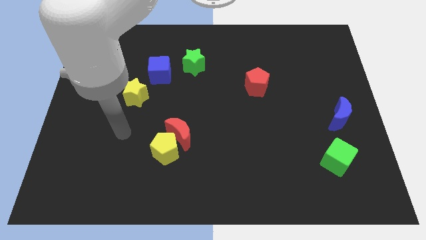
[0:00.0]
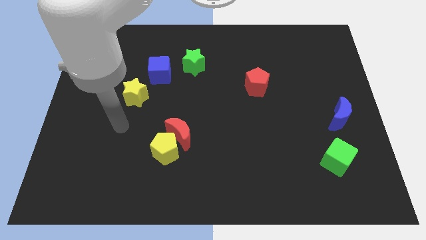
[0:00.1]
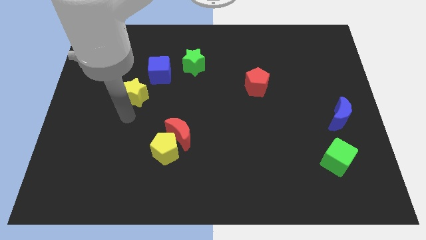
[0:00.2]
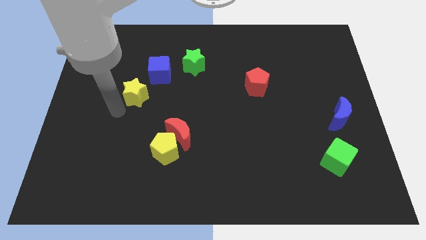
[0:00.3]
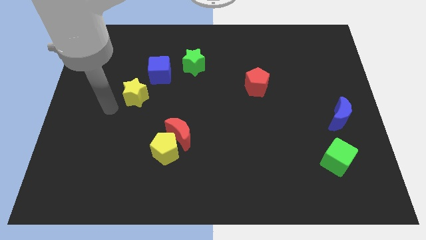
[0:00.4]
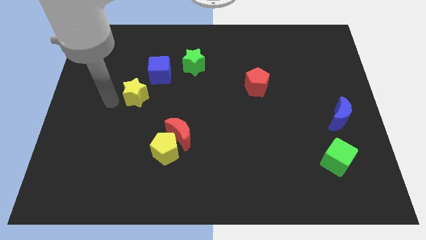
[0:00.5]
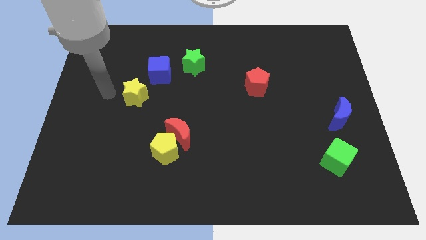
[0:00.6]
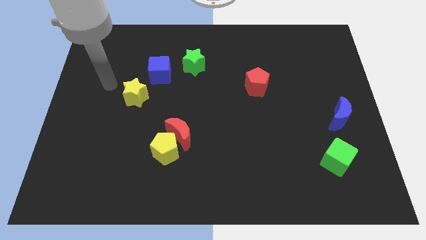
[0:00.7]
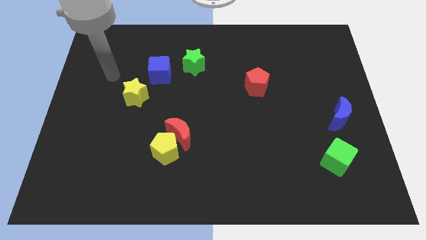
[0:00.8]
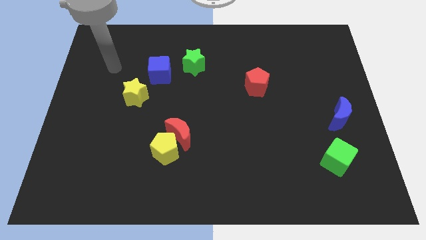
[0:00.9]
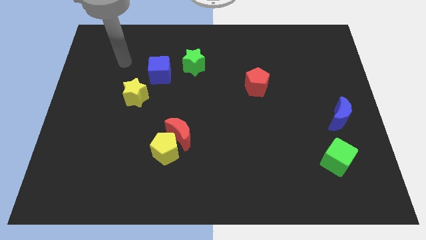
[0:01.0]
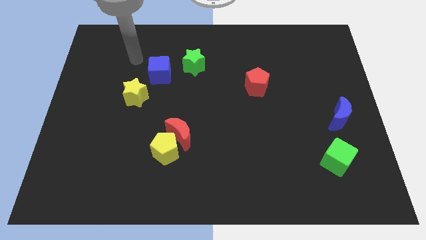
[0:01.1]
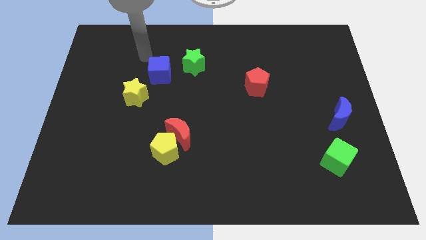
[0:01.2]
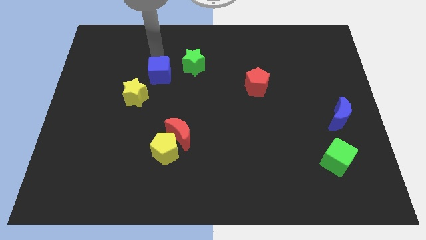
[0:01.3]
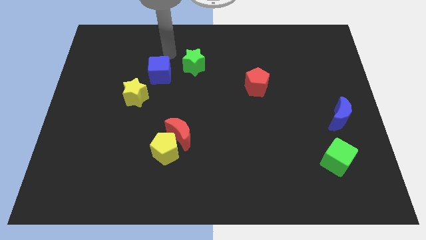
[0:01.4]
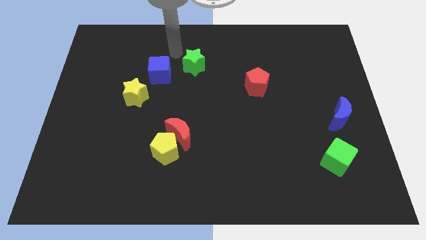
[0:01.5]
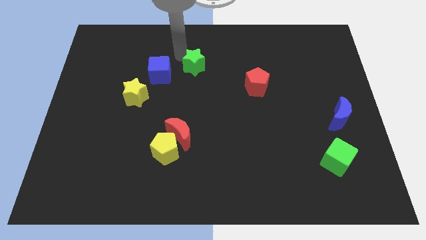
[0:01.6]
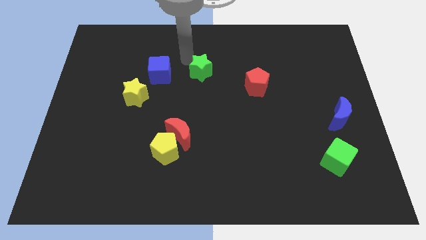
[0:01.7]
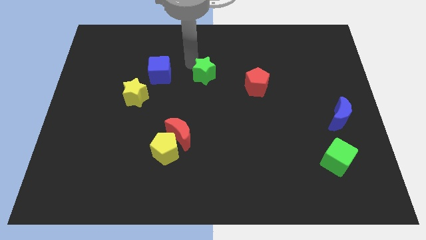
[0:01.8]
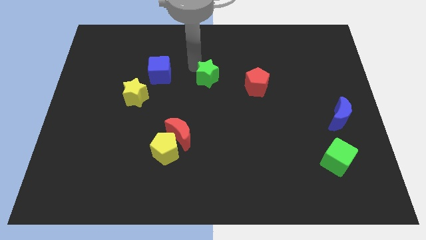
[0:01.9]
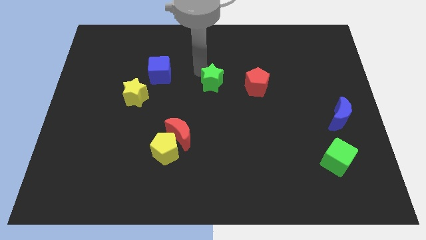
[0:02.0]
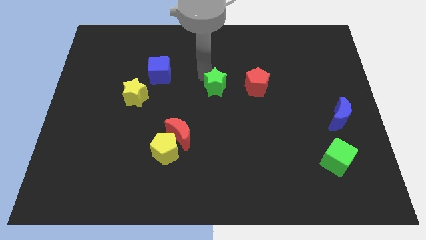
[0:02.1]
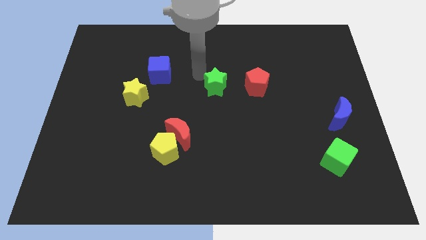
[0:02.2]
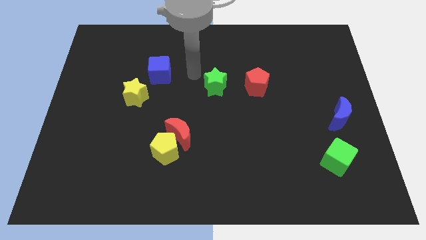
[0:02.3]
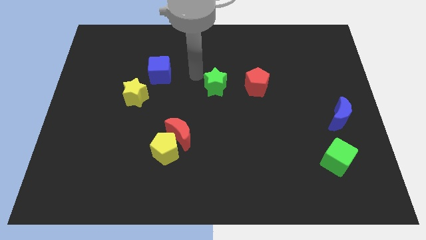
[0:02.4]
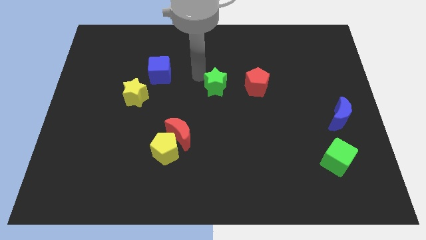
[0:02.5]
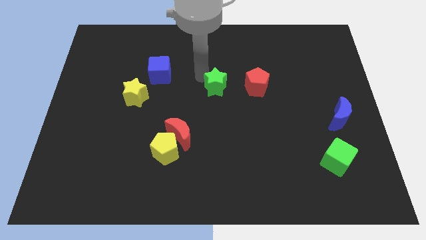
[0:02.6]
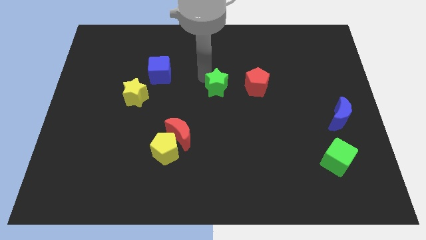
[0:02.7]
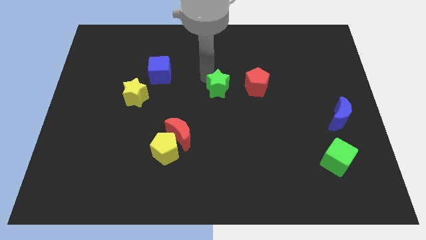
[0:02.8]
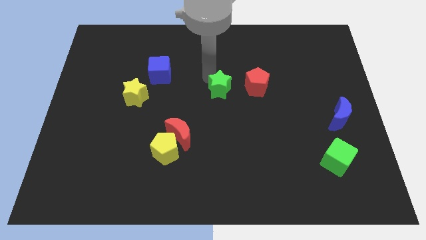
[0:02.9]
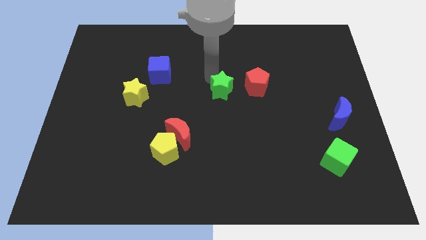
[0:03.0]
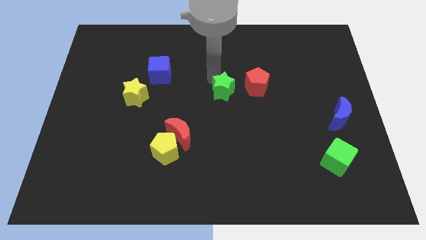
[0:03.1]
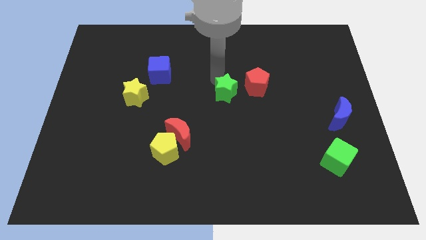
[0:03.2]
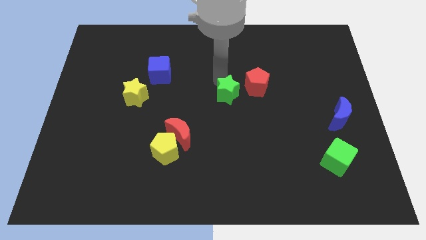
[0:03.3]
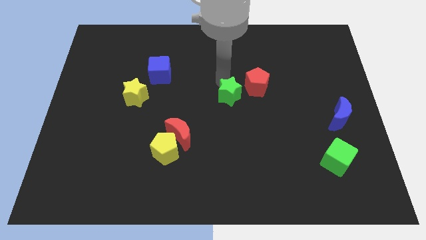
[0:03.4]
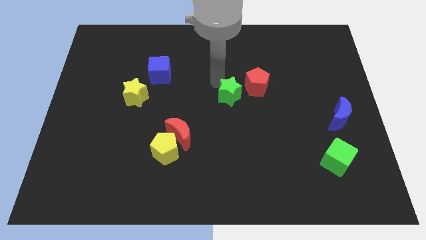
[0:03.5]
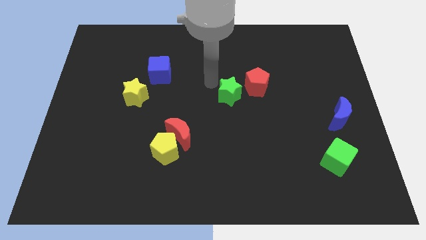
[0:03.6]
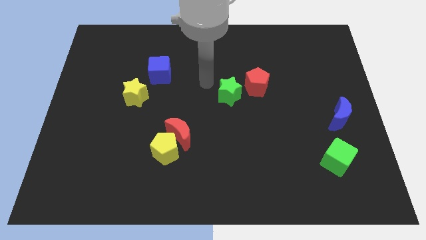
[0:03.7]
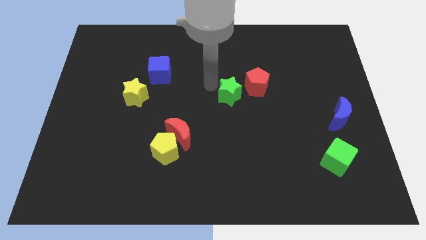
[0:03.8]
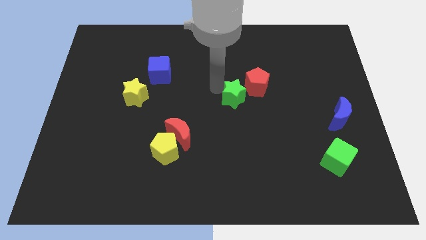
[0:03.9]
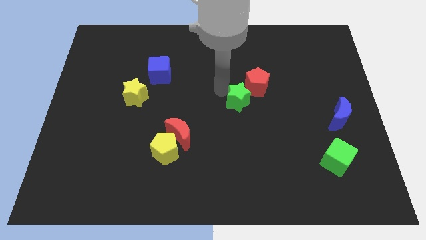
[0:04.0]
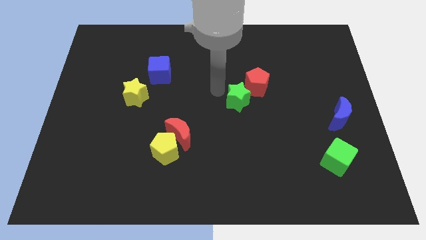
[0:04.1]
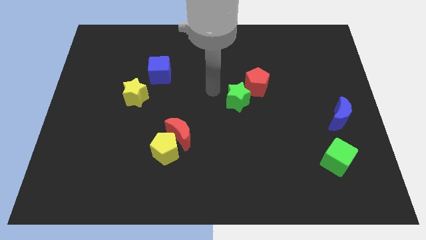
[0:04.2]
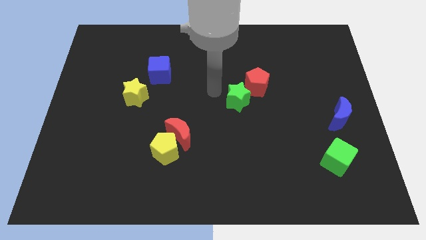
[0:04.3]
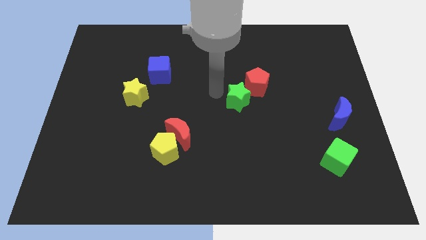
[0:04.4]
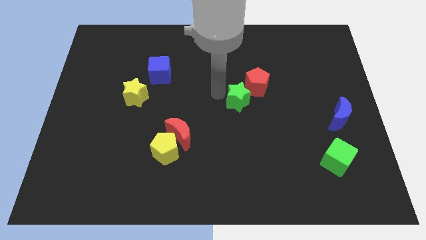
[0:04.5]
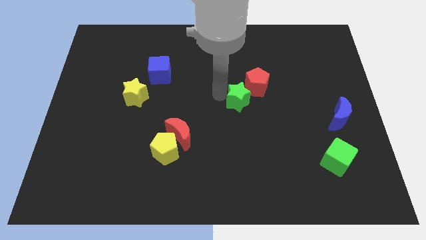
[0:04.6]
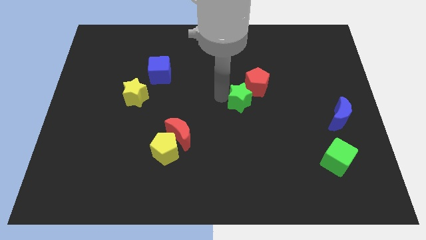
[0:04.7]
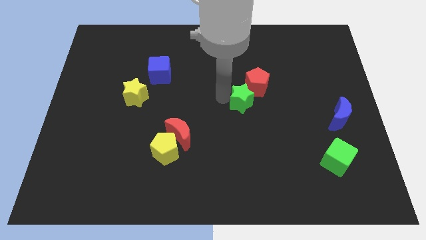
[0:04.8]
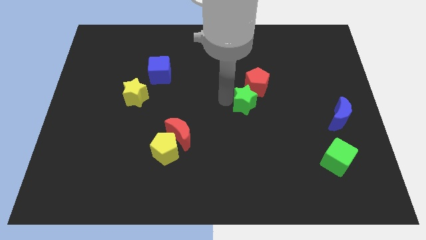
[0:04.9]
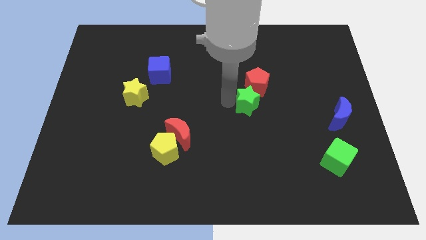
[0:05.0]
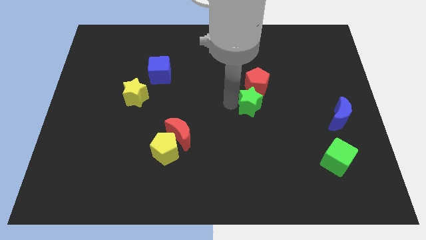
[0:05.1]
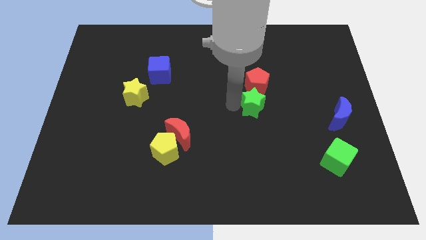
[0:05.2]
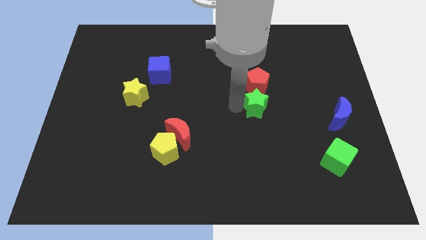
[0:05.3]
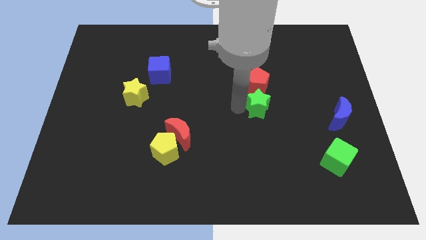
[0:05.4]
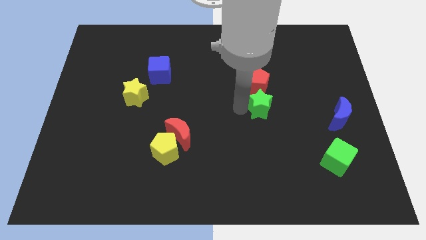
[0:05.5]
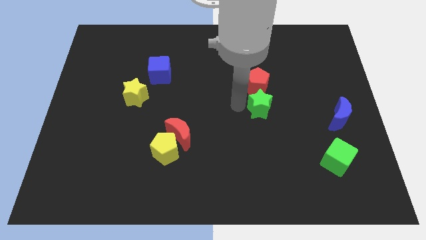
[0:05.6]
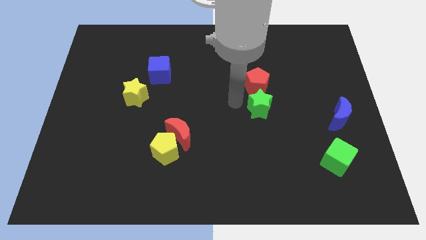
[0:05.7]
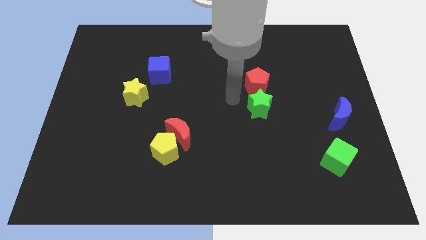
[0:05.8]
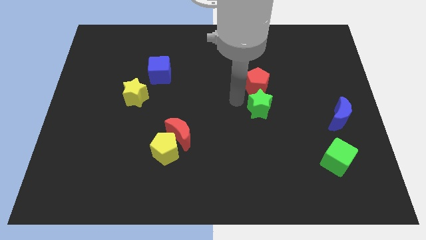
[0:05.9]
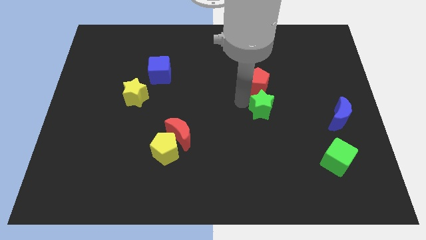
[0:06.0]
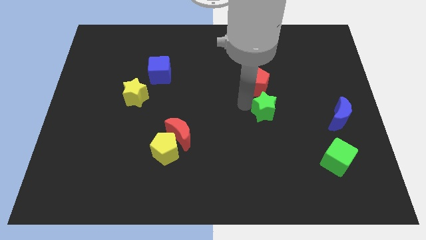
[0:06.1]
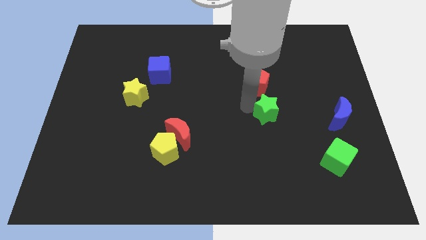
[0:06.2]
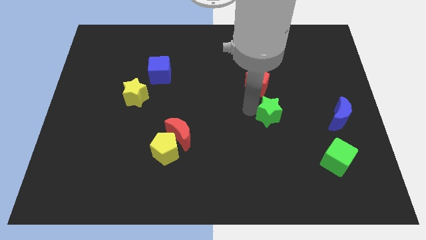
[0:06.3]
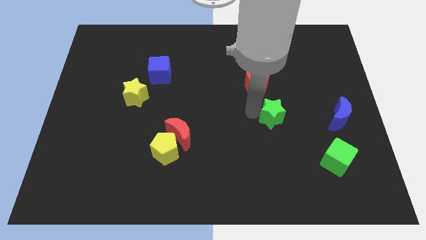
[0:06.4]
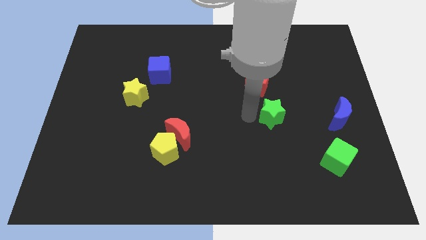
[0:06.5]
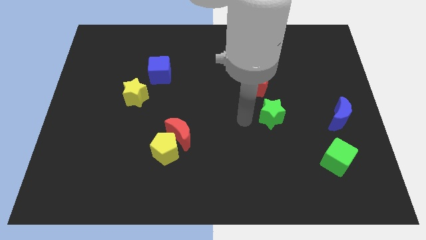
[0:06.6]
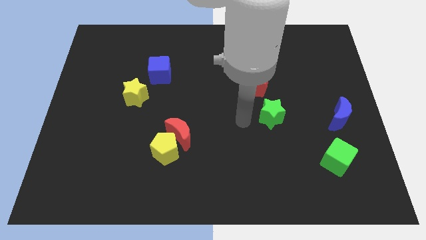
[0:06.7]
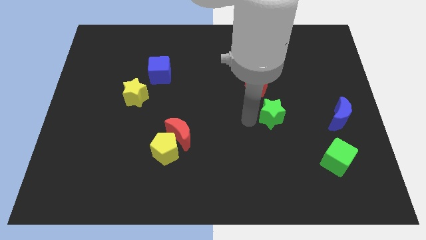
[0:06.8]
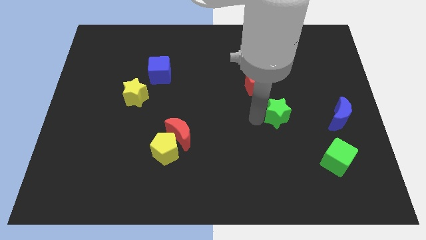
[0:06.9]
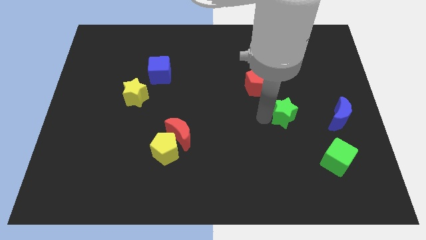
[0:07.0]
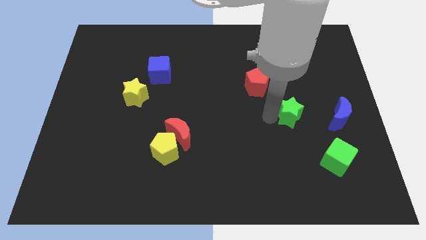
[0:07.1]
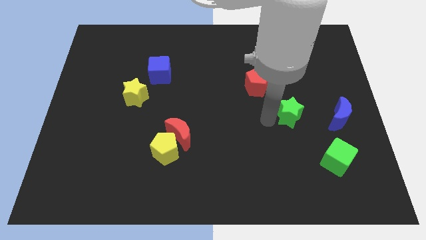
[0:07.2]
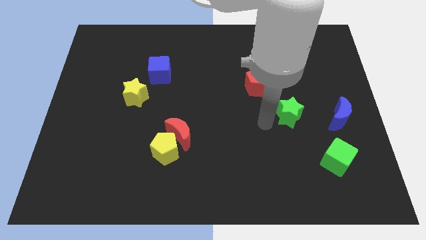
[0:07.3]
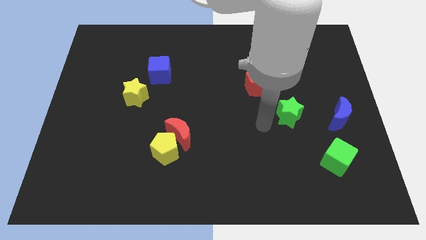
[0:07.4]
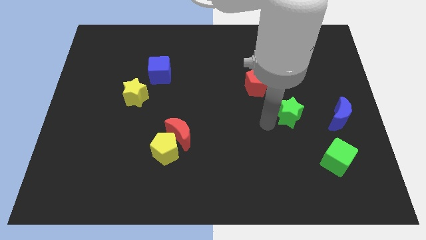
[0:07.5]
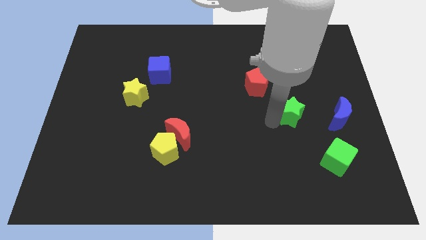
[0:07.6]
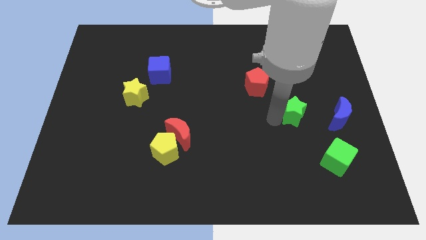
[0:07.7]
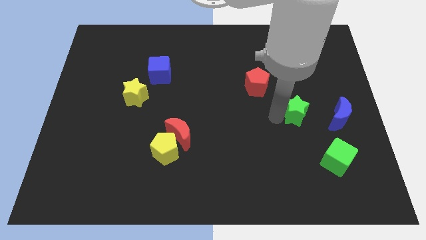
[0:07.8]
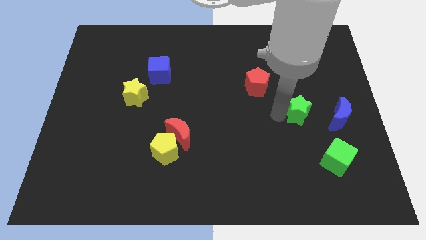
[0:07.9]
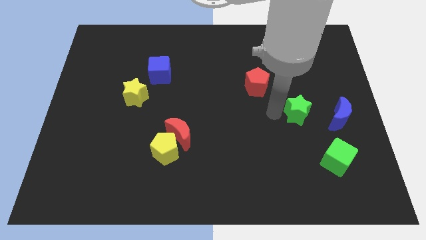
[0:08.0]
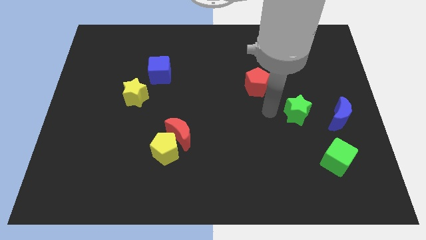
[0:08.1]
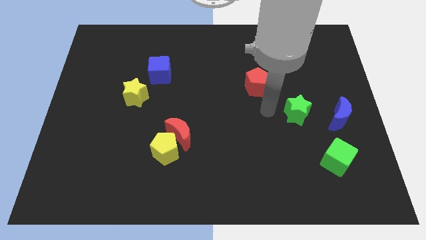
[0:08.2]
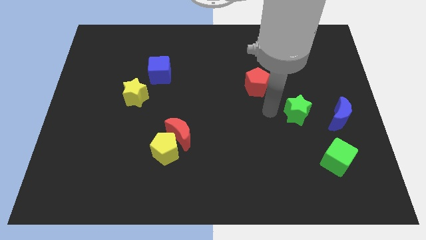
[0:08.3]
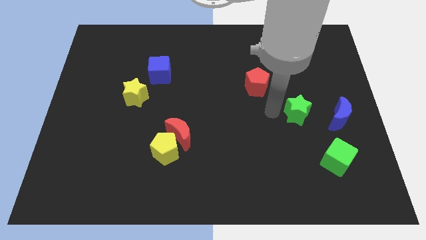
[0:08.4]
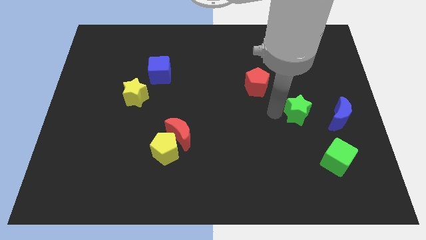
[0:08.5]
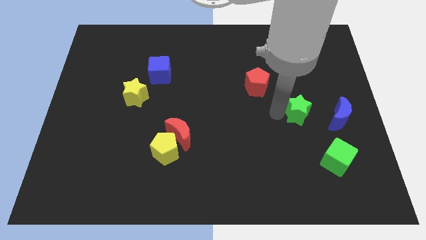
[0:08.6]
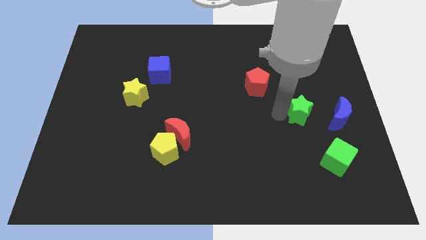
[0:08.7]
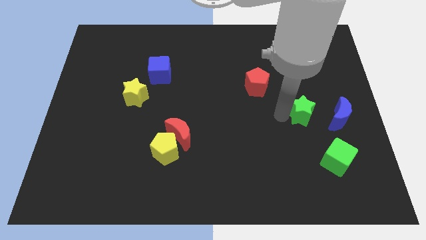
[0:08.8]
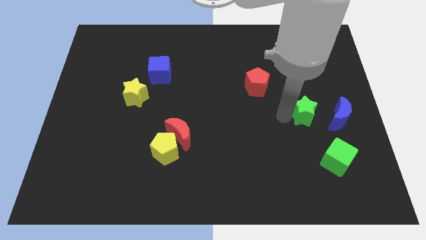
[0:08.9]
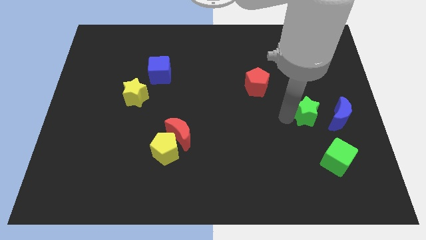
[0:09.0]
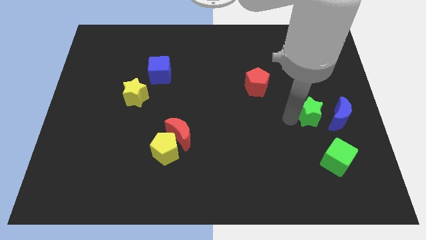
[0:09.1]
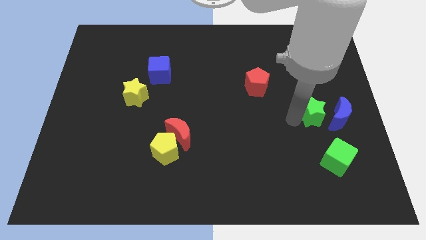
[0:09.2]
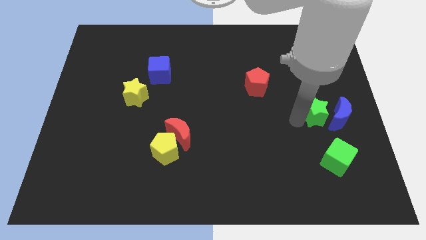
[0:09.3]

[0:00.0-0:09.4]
slide the green star close to the blue moon
